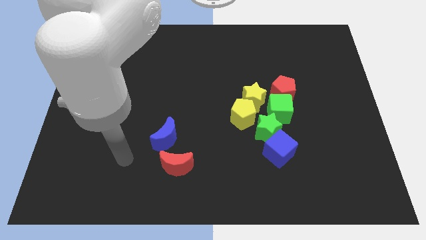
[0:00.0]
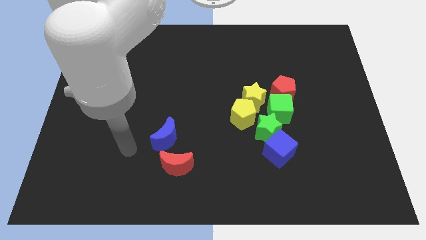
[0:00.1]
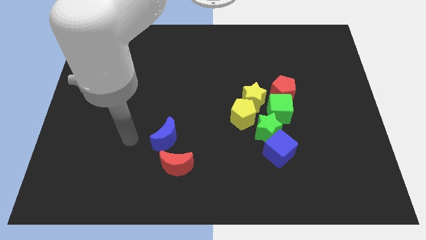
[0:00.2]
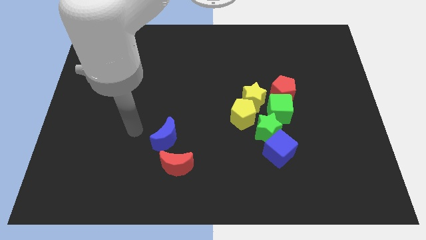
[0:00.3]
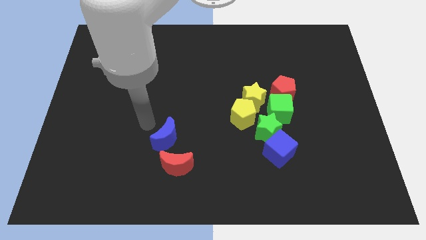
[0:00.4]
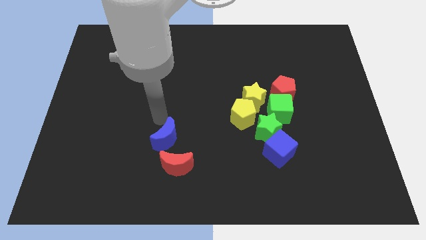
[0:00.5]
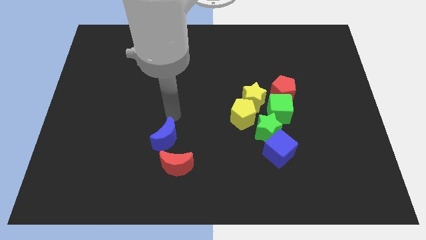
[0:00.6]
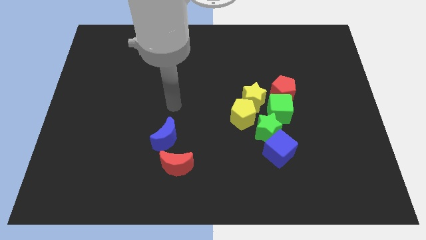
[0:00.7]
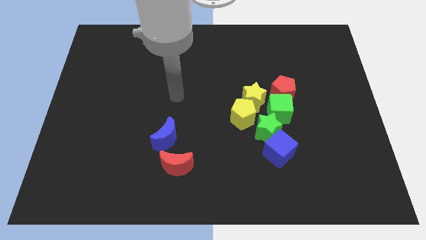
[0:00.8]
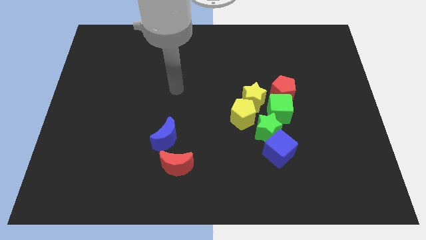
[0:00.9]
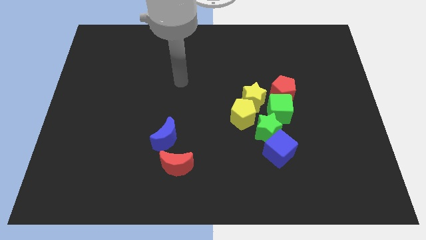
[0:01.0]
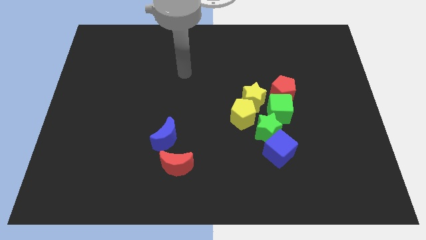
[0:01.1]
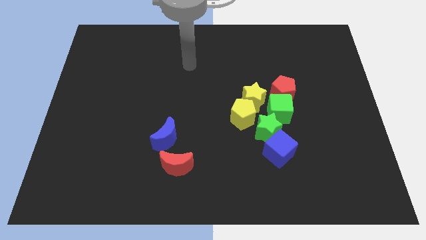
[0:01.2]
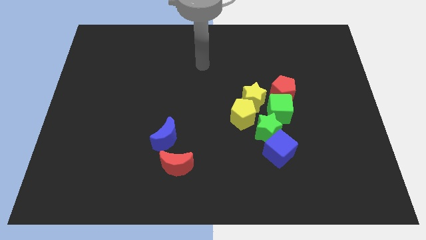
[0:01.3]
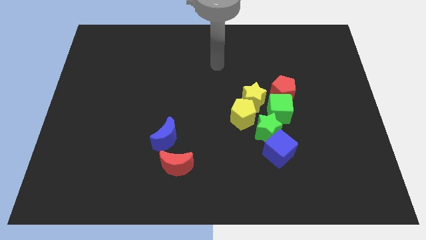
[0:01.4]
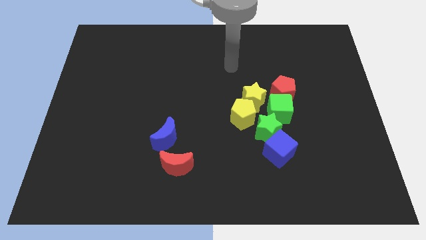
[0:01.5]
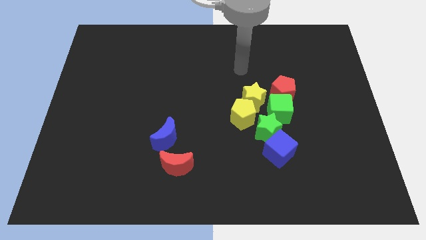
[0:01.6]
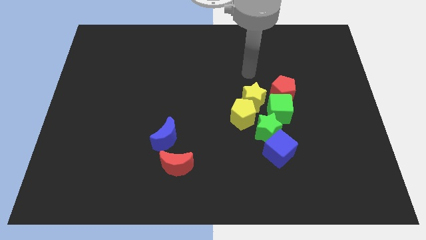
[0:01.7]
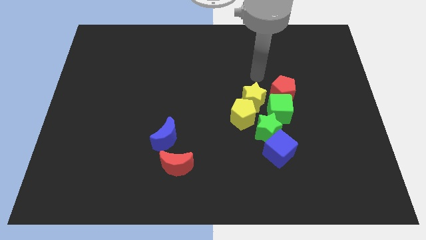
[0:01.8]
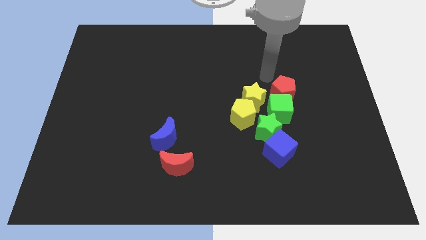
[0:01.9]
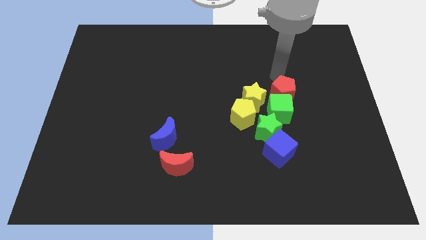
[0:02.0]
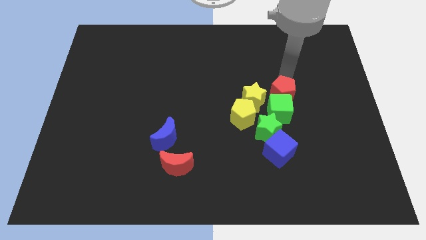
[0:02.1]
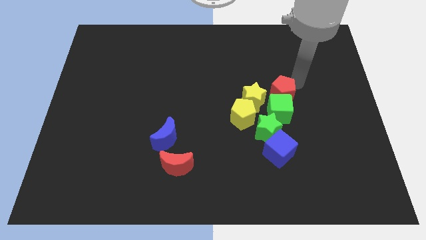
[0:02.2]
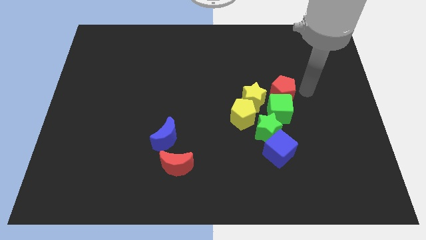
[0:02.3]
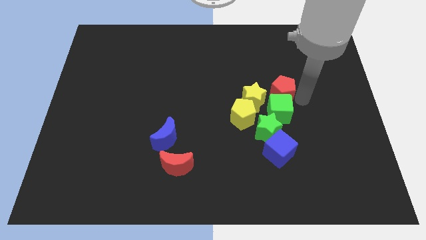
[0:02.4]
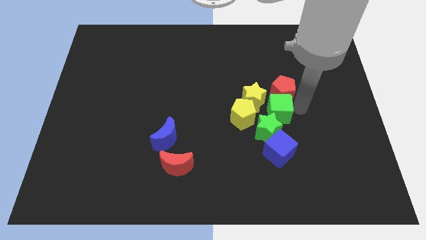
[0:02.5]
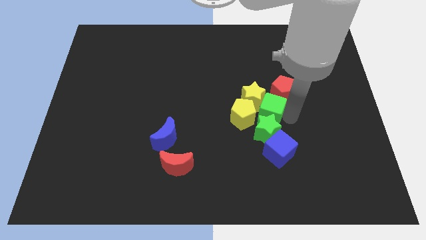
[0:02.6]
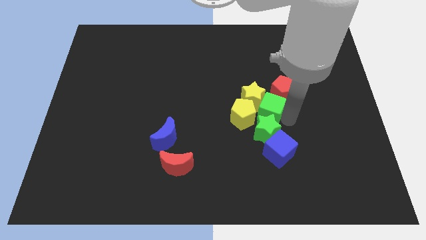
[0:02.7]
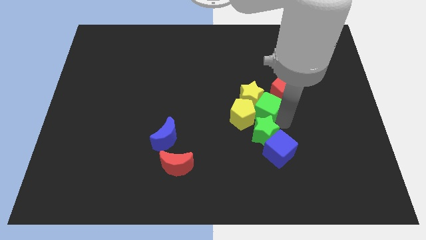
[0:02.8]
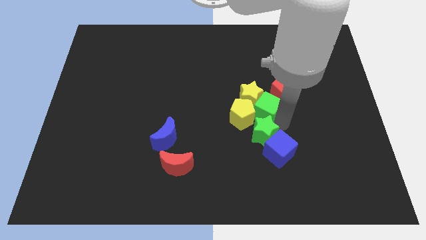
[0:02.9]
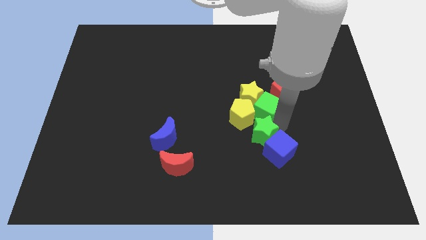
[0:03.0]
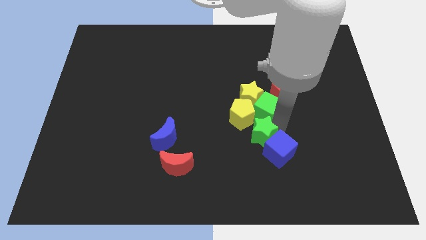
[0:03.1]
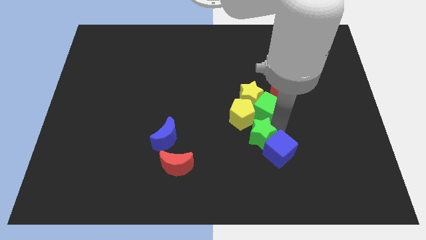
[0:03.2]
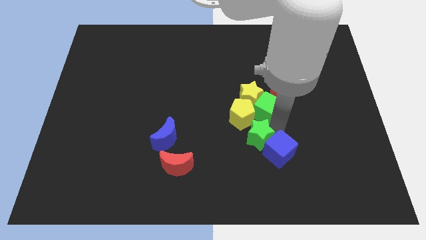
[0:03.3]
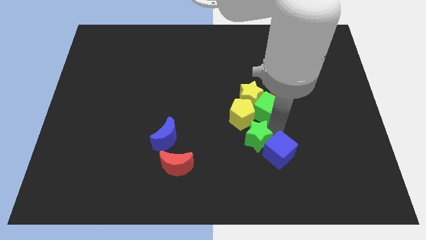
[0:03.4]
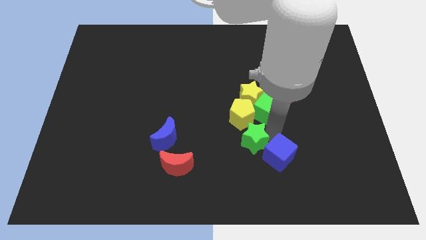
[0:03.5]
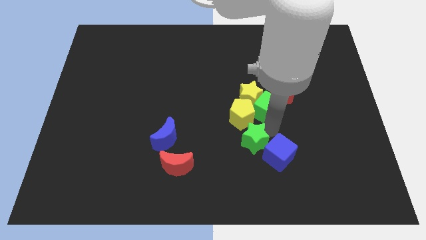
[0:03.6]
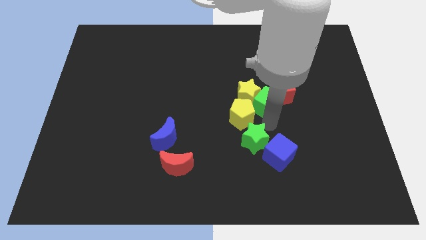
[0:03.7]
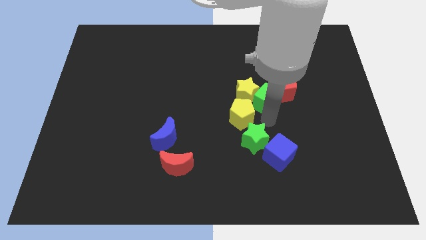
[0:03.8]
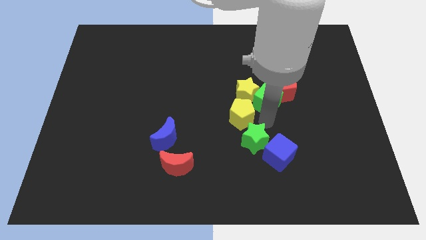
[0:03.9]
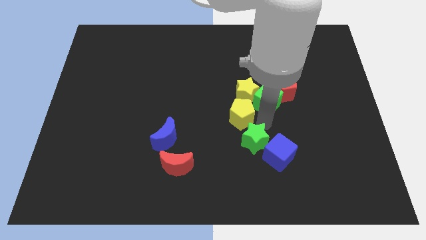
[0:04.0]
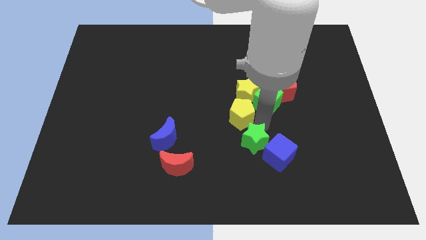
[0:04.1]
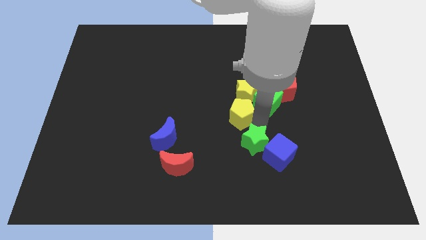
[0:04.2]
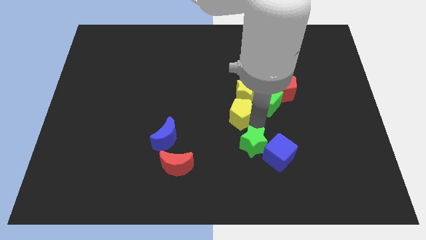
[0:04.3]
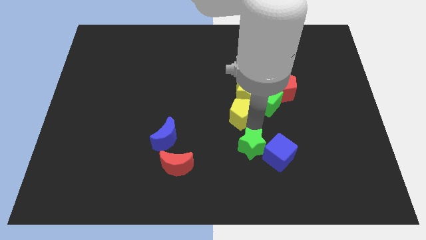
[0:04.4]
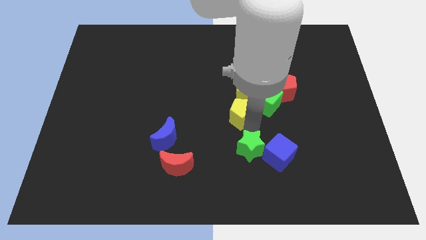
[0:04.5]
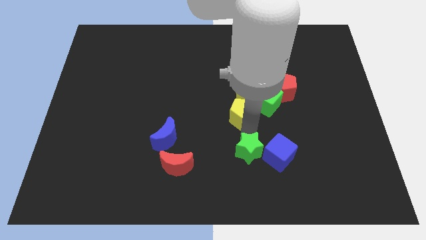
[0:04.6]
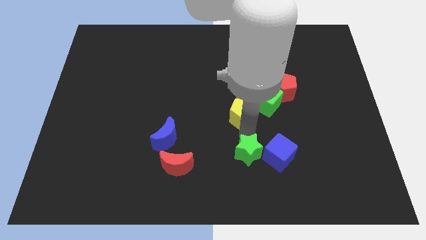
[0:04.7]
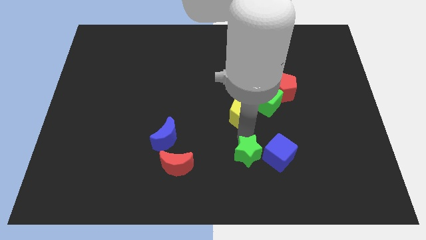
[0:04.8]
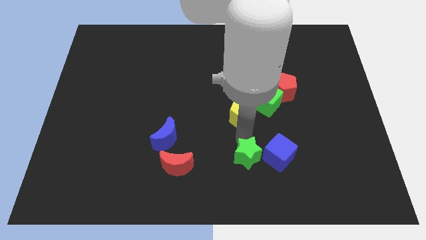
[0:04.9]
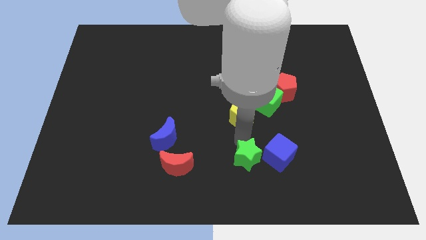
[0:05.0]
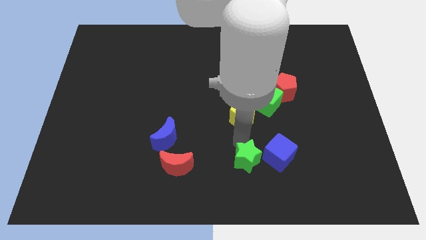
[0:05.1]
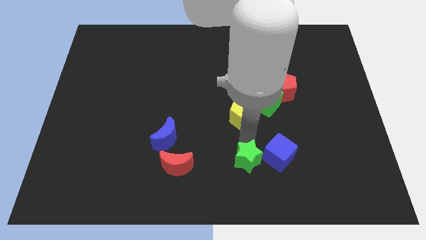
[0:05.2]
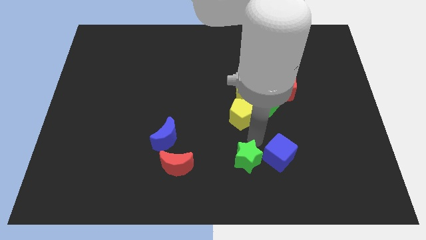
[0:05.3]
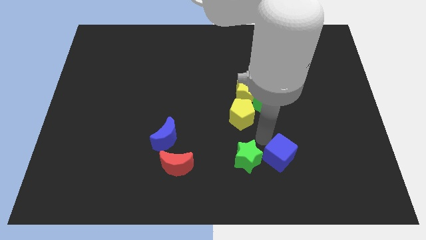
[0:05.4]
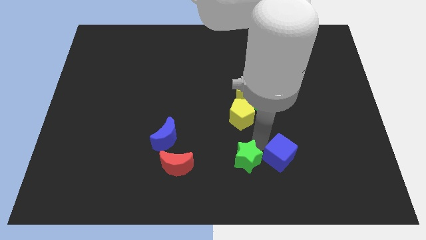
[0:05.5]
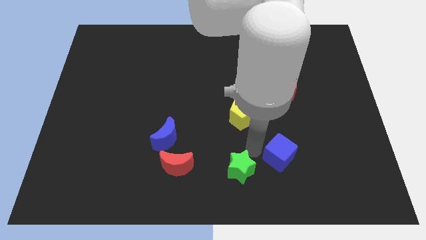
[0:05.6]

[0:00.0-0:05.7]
move the green star to the bottom
